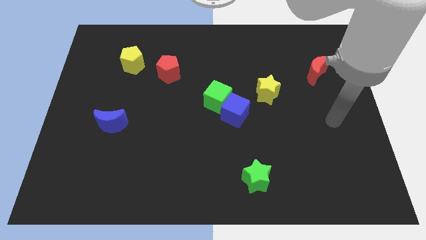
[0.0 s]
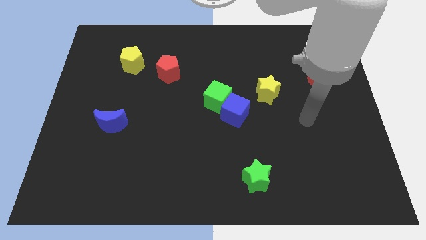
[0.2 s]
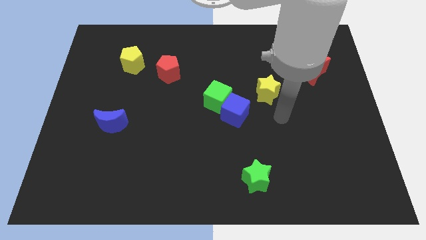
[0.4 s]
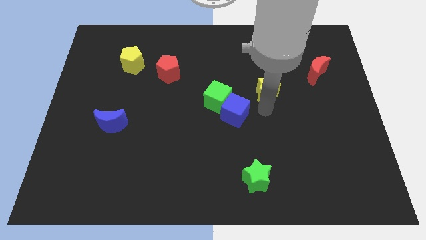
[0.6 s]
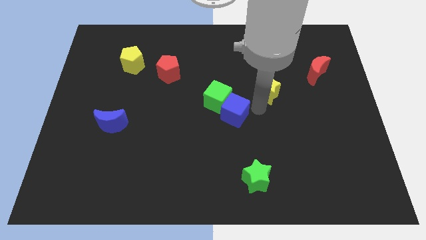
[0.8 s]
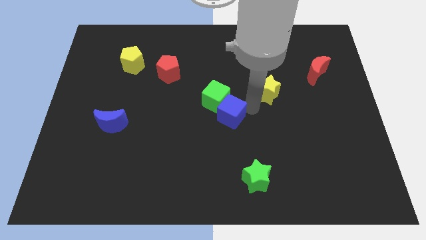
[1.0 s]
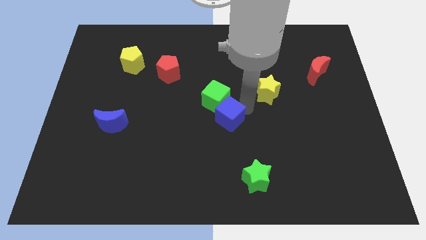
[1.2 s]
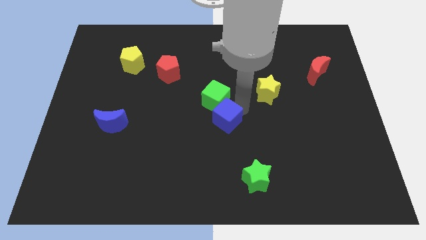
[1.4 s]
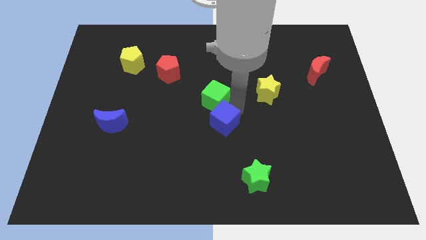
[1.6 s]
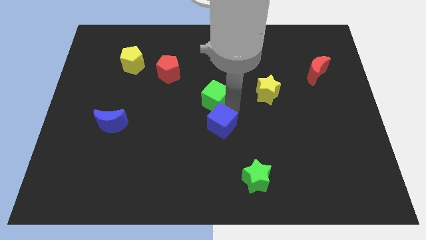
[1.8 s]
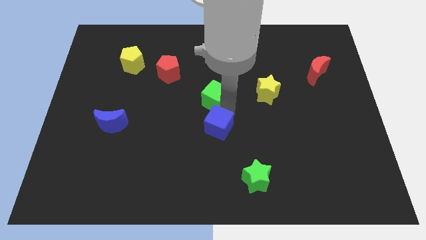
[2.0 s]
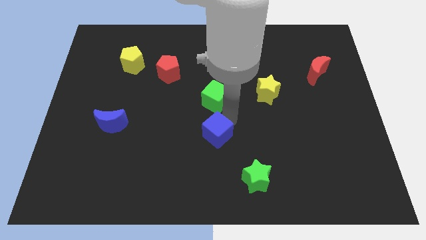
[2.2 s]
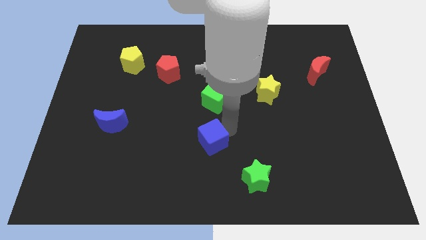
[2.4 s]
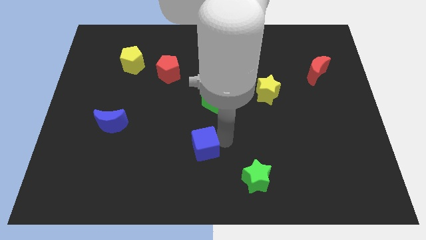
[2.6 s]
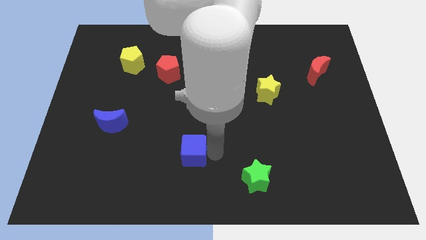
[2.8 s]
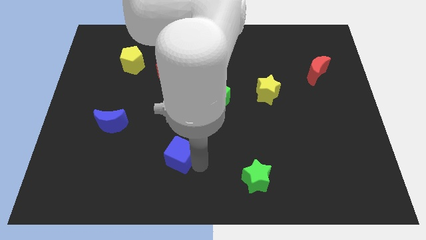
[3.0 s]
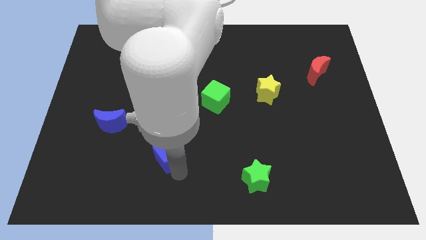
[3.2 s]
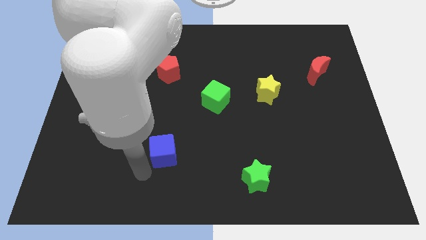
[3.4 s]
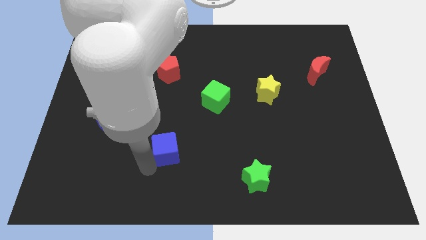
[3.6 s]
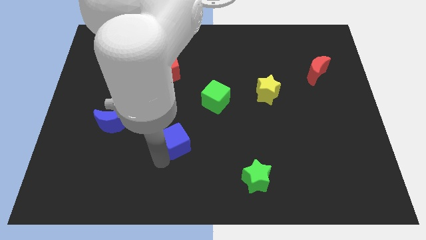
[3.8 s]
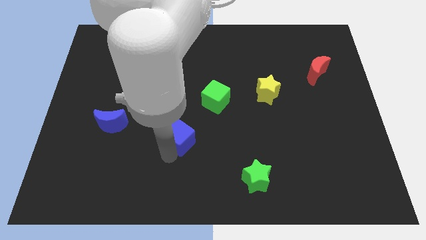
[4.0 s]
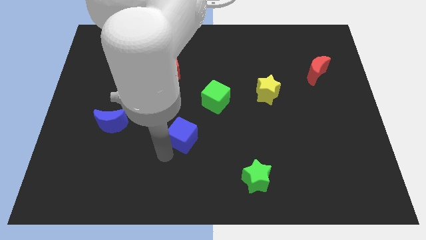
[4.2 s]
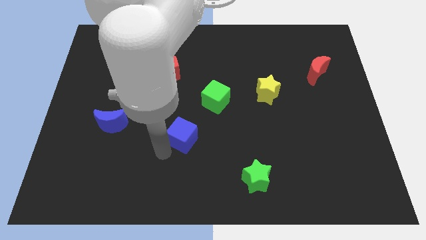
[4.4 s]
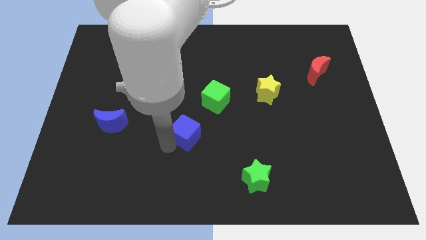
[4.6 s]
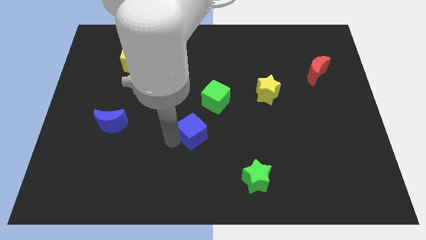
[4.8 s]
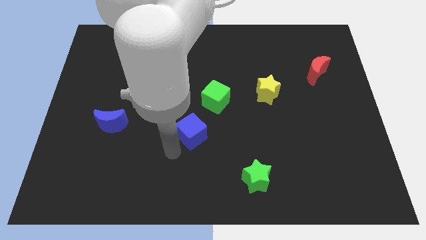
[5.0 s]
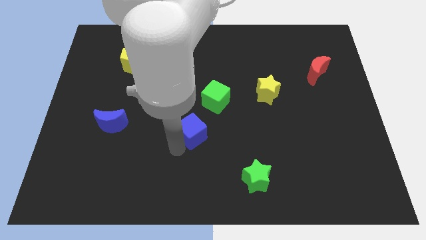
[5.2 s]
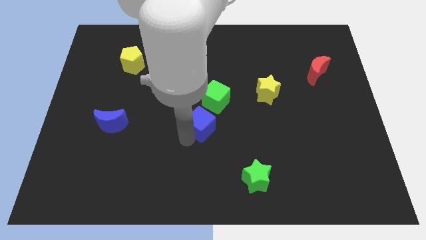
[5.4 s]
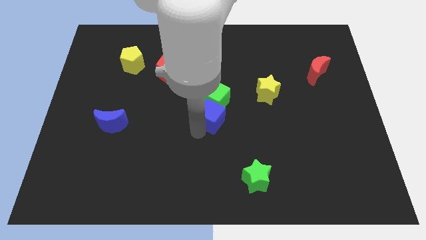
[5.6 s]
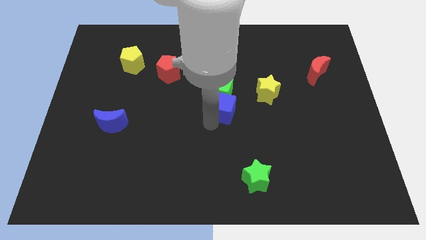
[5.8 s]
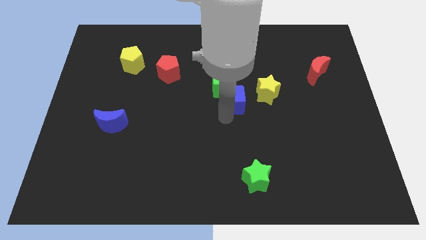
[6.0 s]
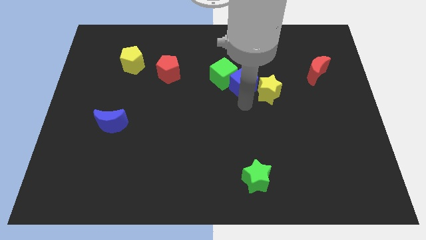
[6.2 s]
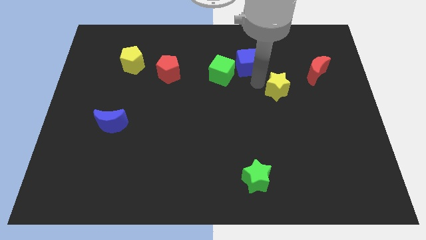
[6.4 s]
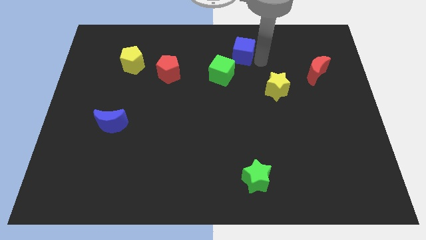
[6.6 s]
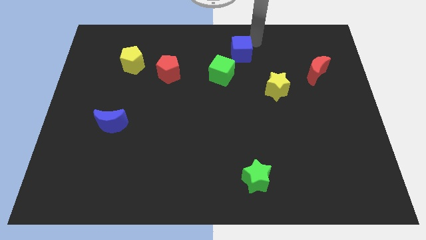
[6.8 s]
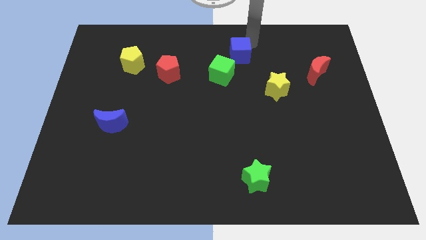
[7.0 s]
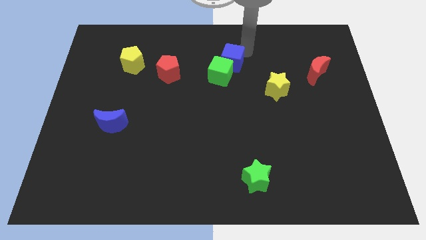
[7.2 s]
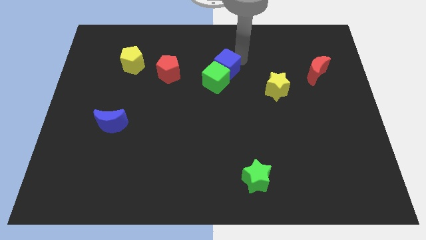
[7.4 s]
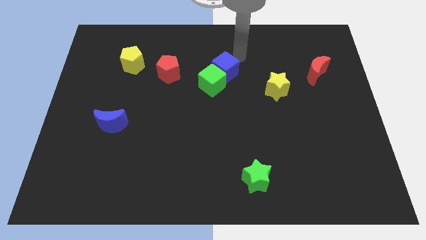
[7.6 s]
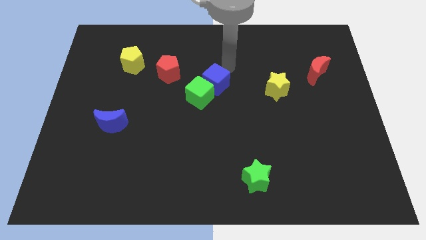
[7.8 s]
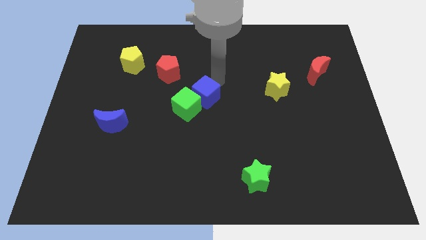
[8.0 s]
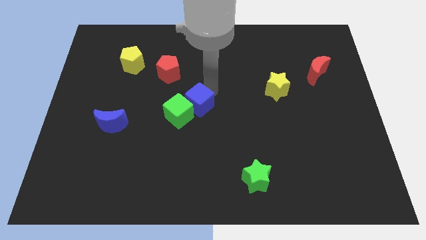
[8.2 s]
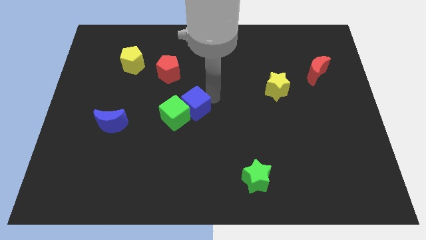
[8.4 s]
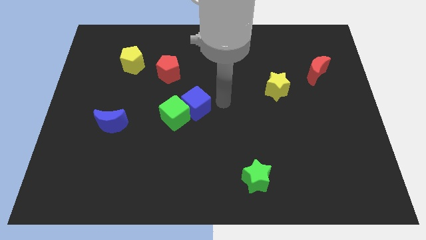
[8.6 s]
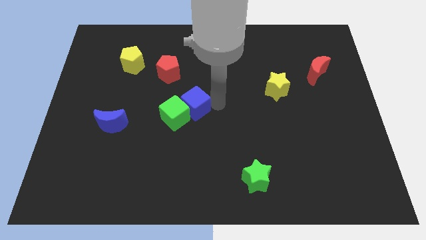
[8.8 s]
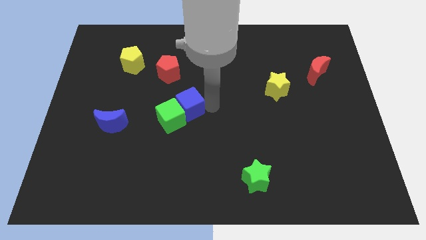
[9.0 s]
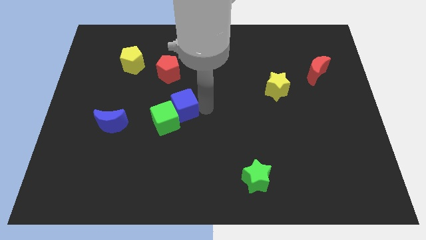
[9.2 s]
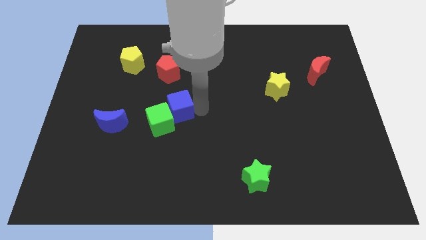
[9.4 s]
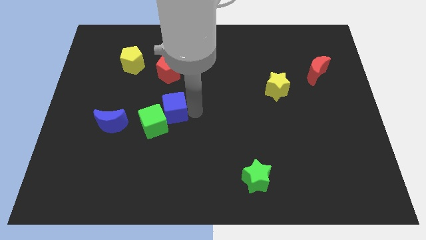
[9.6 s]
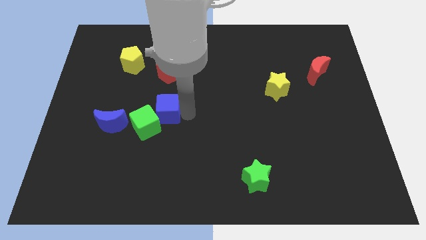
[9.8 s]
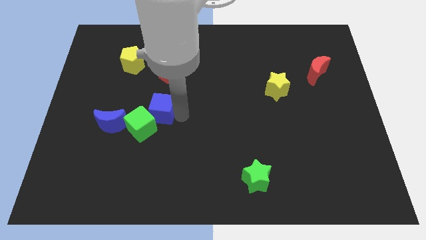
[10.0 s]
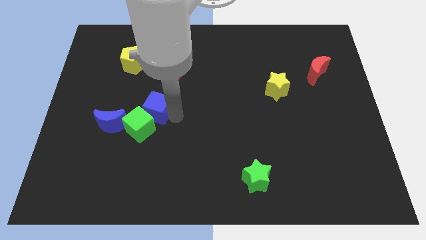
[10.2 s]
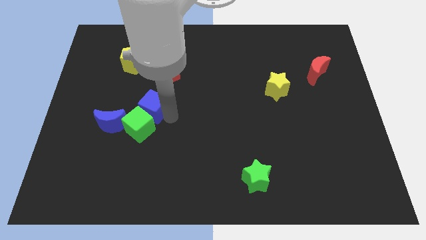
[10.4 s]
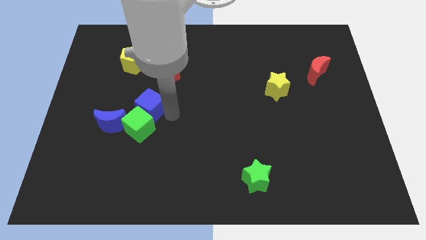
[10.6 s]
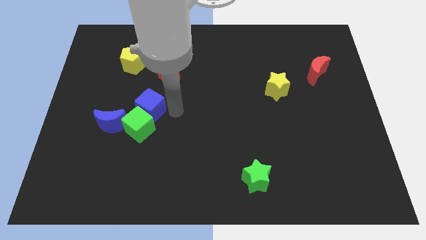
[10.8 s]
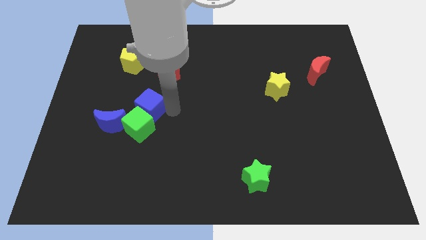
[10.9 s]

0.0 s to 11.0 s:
push the blue cube left

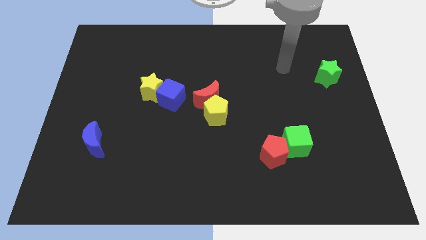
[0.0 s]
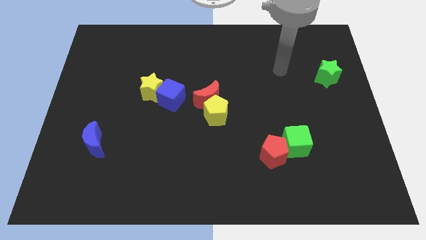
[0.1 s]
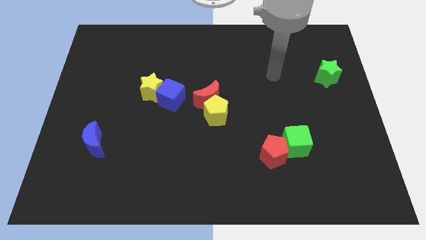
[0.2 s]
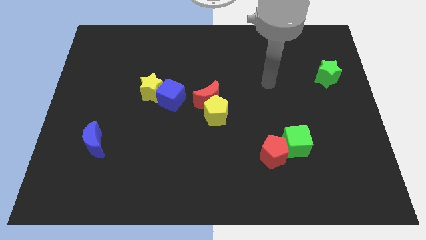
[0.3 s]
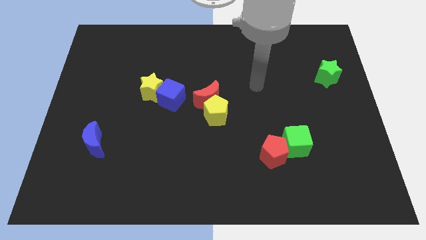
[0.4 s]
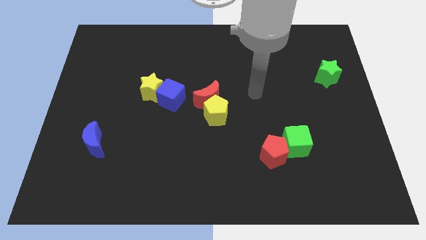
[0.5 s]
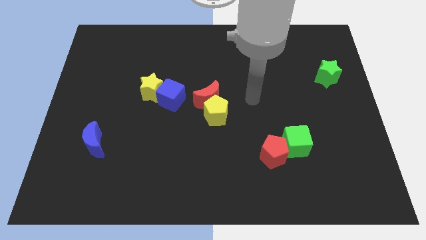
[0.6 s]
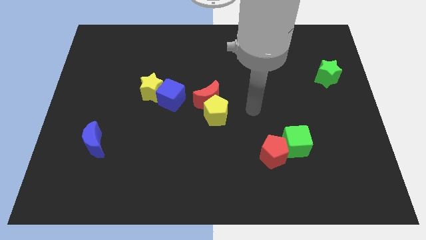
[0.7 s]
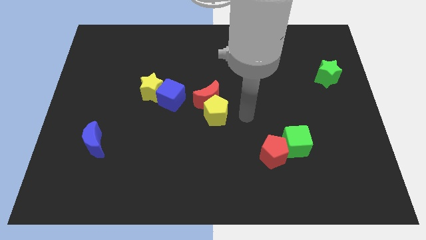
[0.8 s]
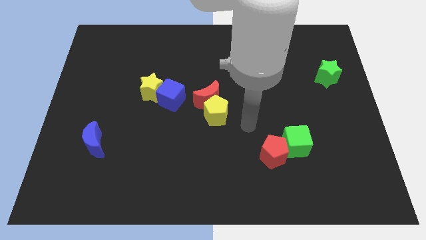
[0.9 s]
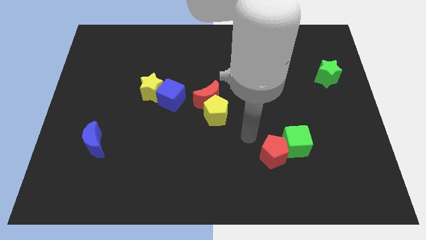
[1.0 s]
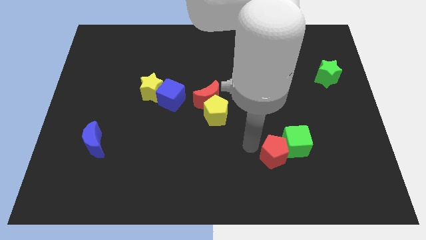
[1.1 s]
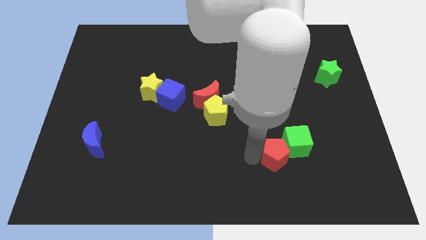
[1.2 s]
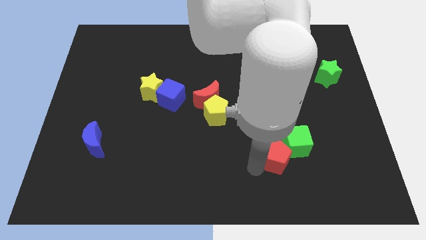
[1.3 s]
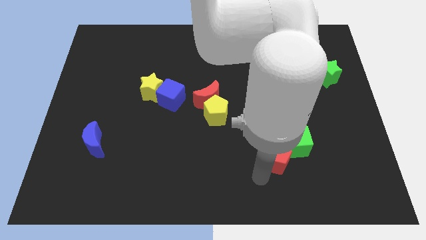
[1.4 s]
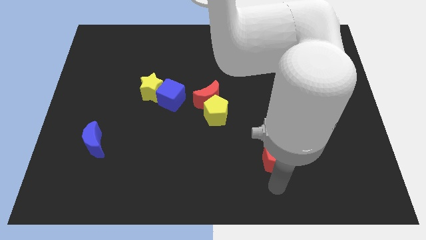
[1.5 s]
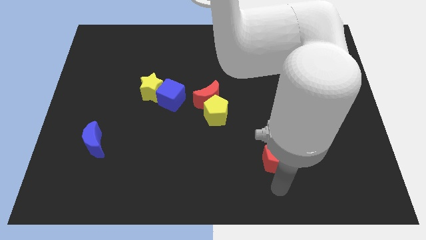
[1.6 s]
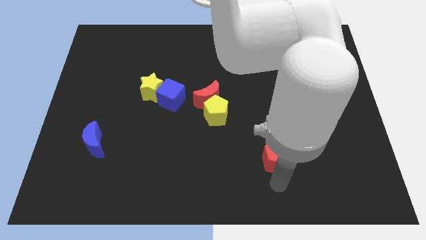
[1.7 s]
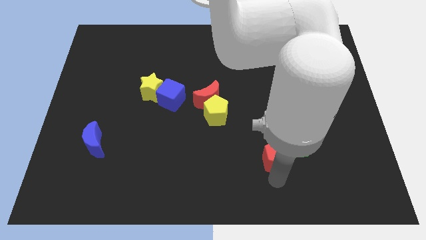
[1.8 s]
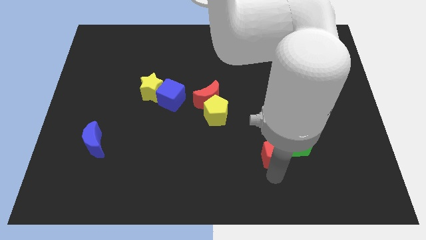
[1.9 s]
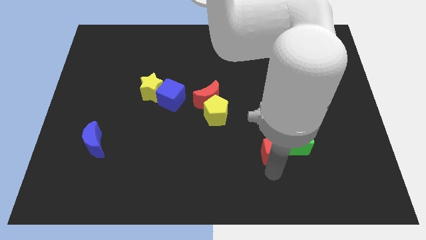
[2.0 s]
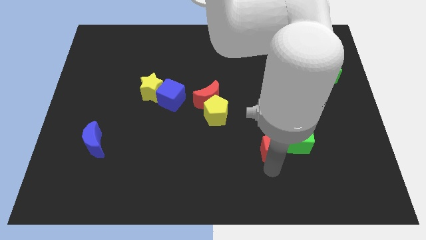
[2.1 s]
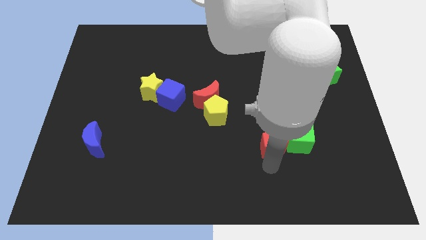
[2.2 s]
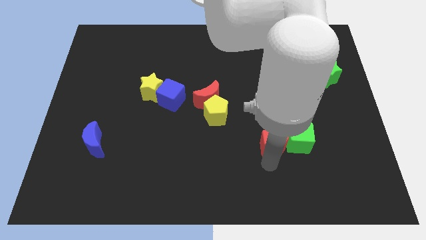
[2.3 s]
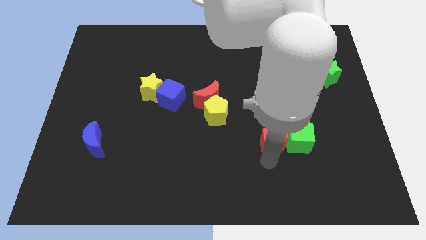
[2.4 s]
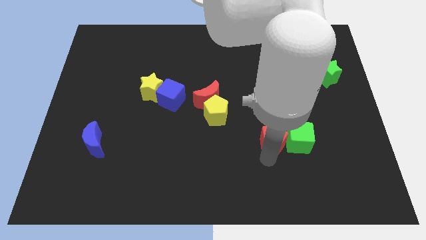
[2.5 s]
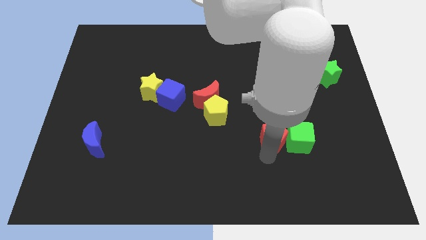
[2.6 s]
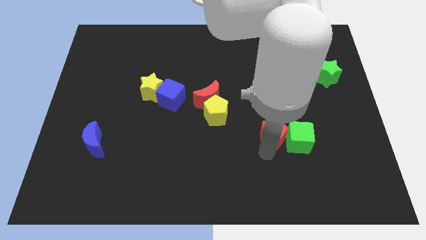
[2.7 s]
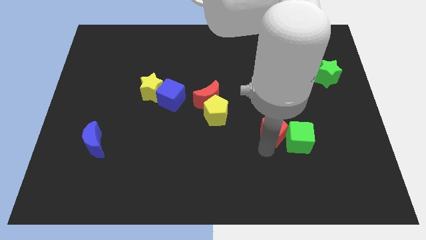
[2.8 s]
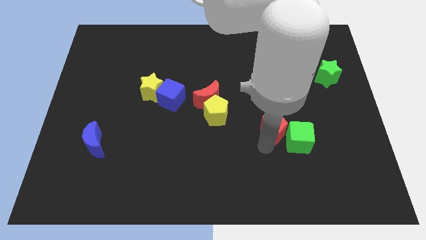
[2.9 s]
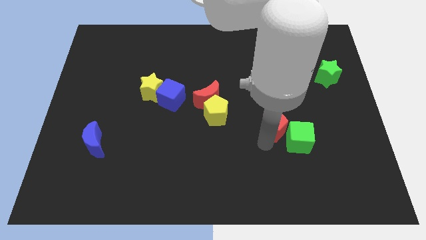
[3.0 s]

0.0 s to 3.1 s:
slightly push the red pentagon upwards
